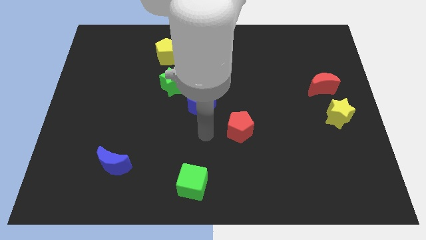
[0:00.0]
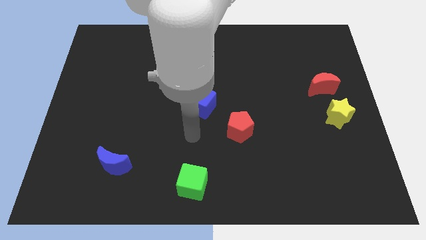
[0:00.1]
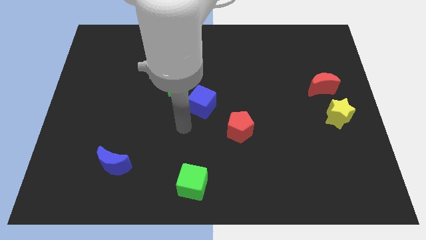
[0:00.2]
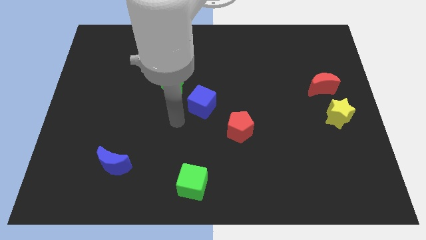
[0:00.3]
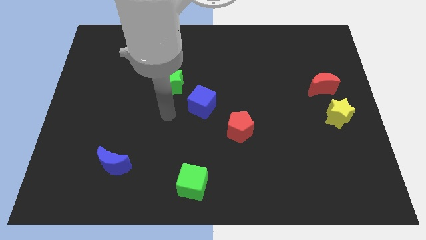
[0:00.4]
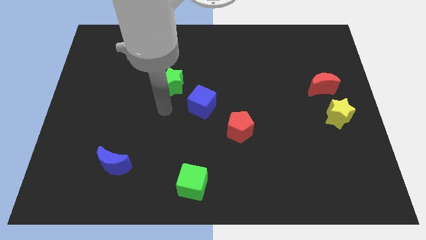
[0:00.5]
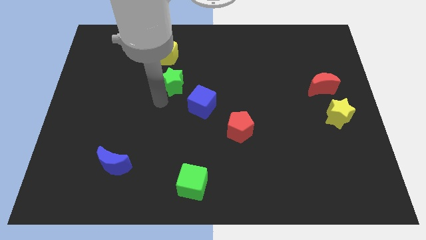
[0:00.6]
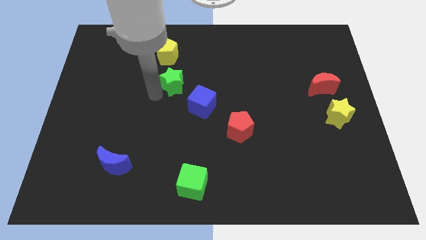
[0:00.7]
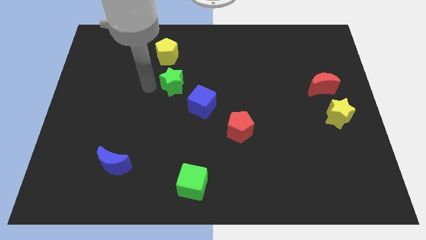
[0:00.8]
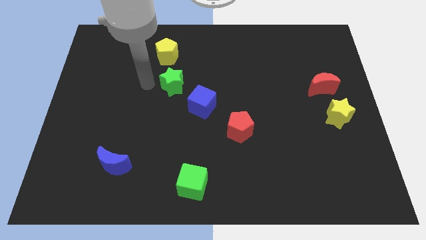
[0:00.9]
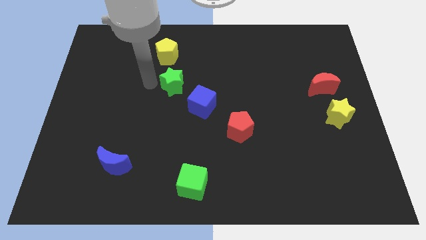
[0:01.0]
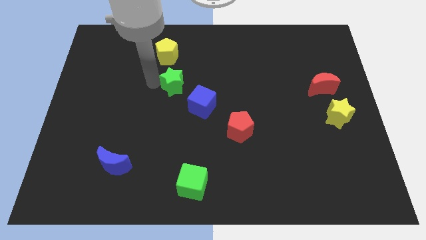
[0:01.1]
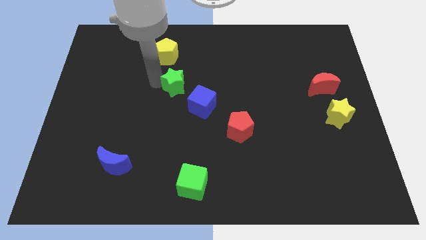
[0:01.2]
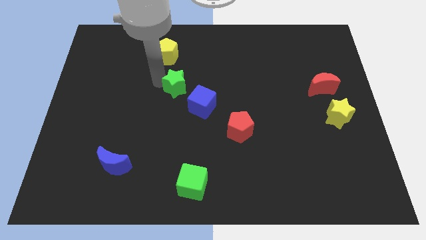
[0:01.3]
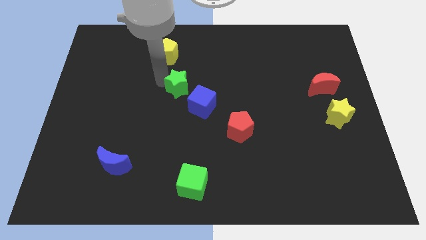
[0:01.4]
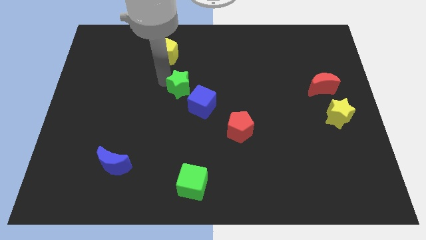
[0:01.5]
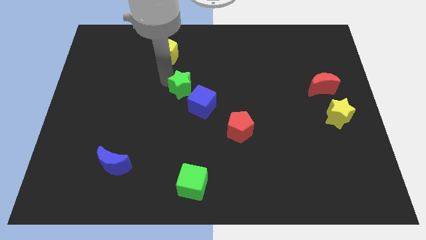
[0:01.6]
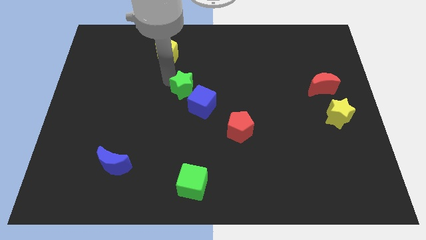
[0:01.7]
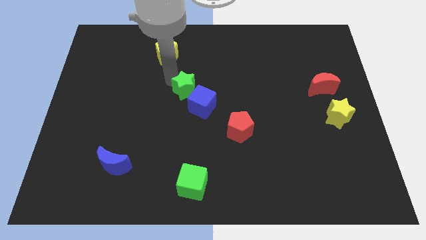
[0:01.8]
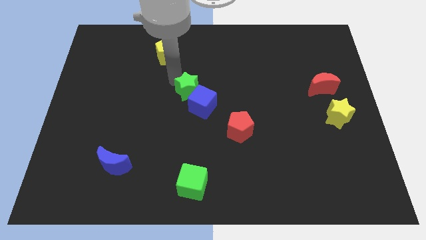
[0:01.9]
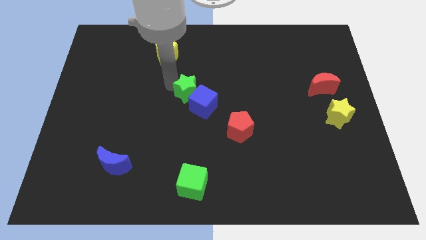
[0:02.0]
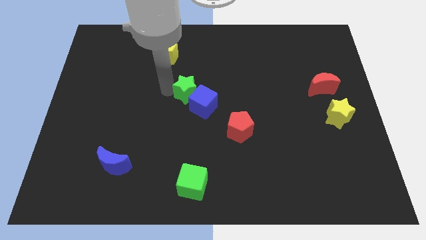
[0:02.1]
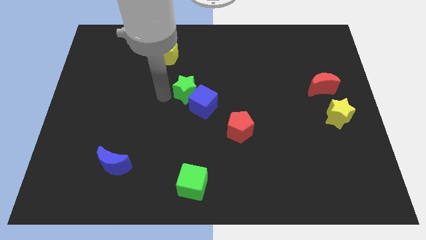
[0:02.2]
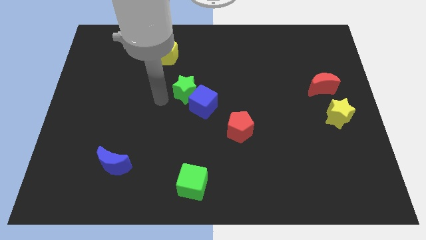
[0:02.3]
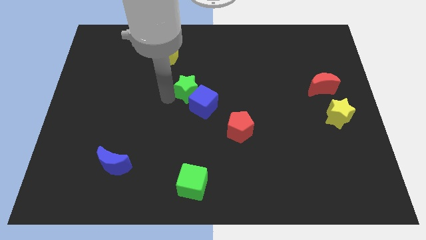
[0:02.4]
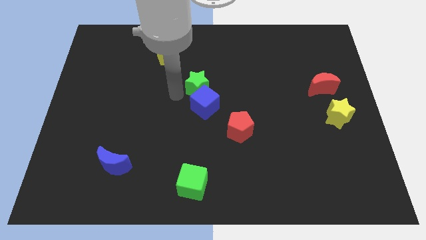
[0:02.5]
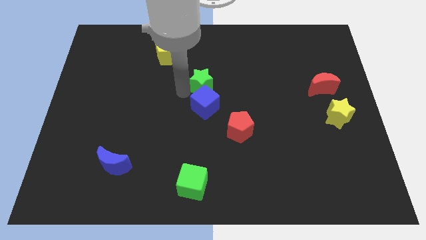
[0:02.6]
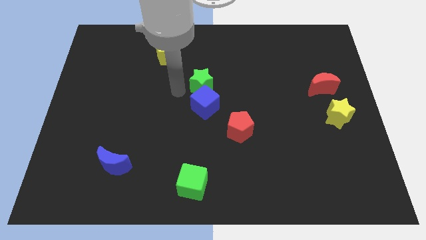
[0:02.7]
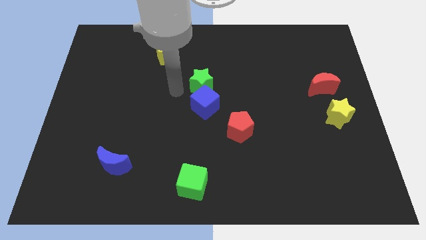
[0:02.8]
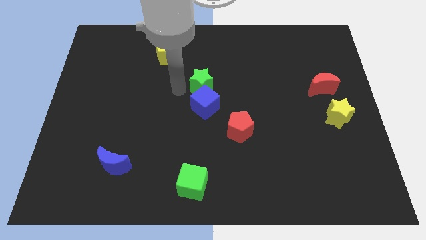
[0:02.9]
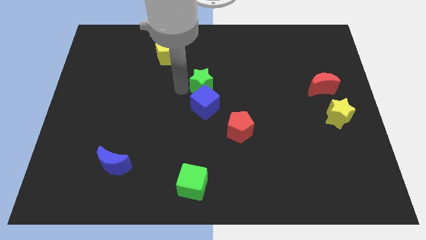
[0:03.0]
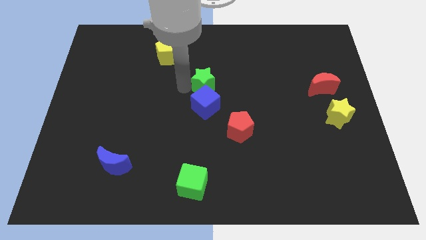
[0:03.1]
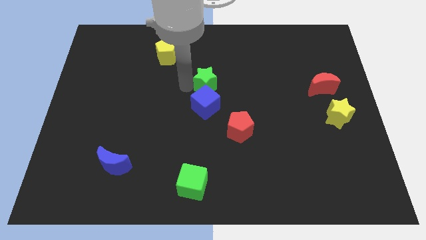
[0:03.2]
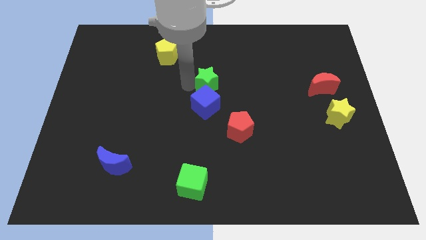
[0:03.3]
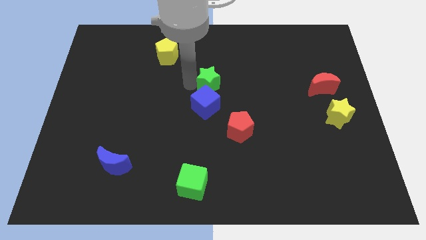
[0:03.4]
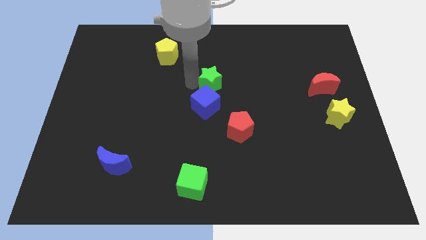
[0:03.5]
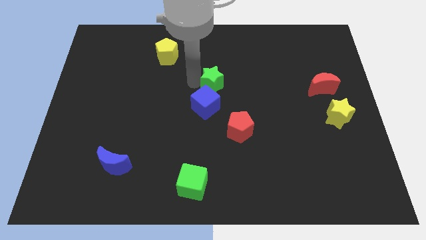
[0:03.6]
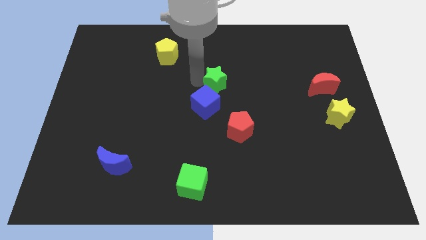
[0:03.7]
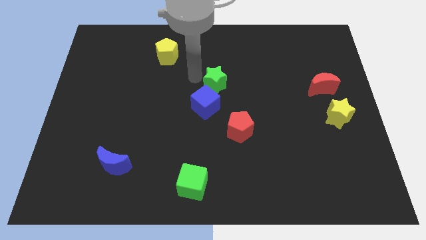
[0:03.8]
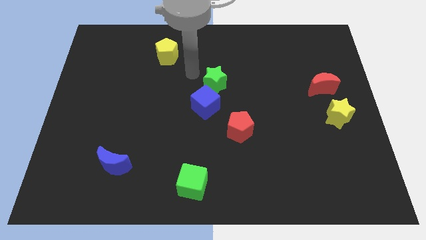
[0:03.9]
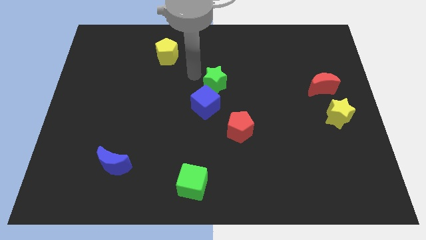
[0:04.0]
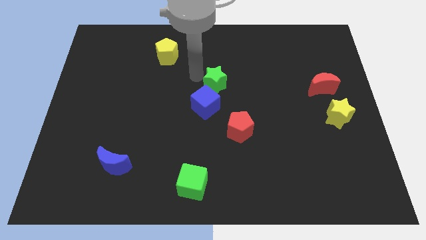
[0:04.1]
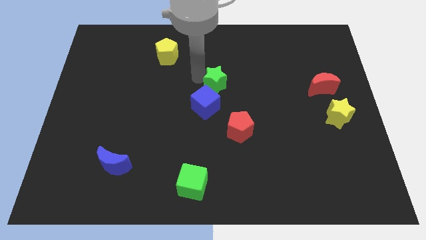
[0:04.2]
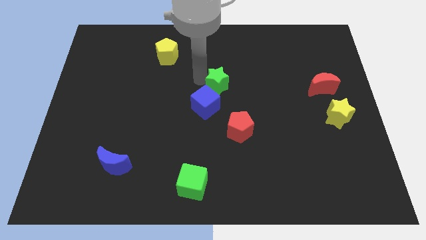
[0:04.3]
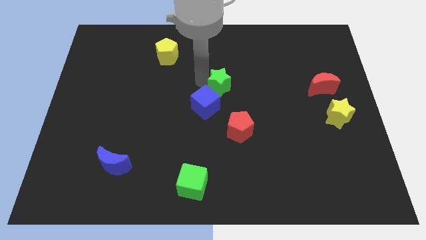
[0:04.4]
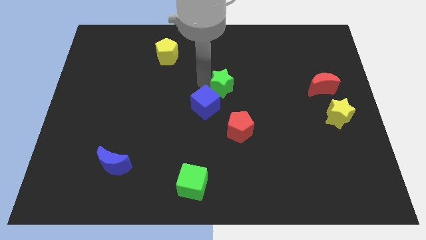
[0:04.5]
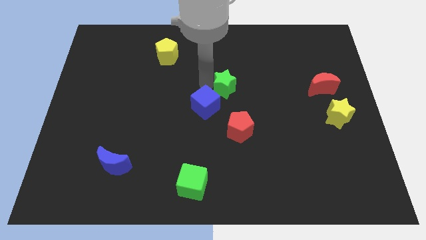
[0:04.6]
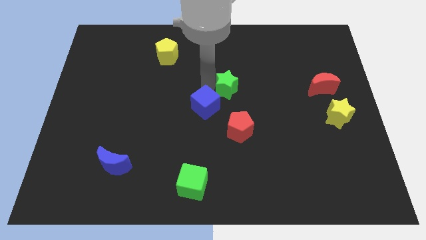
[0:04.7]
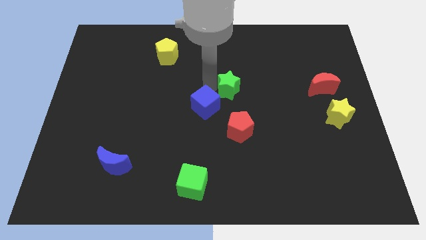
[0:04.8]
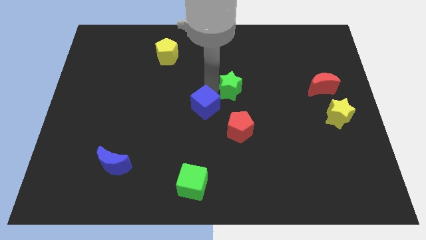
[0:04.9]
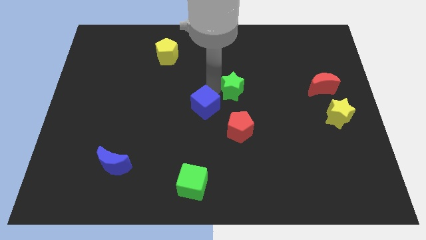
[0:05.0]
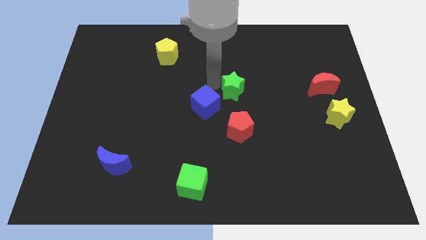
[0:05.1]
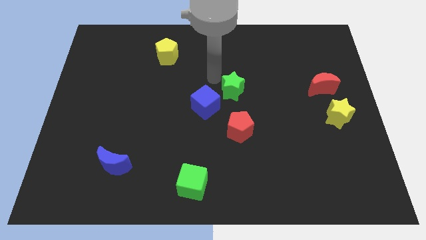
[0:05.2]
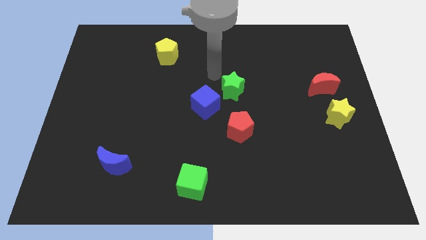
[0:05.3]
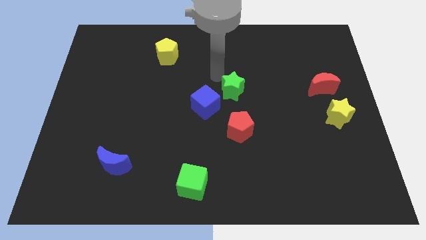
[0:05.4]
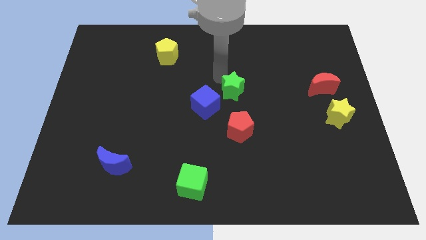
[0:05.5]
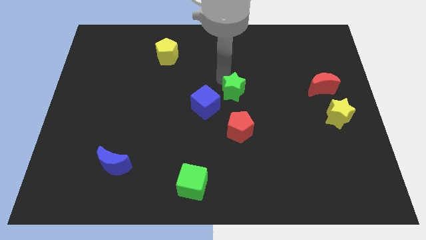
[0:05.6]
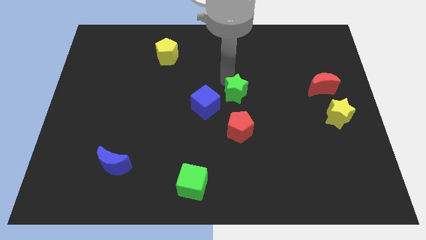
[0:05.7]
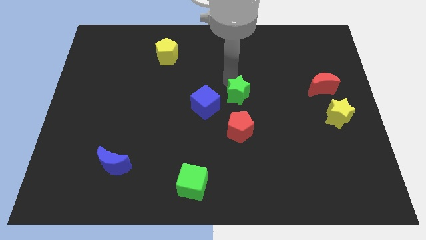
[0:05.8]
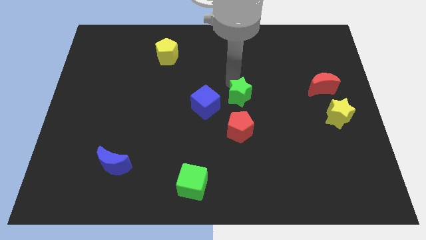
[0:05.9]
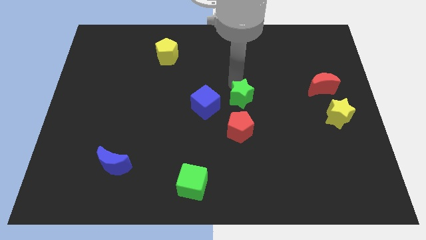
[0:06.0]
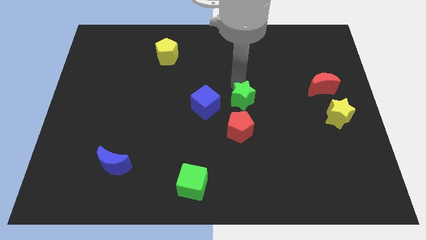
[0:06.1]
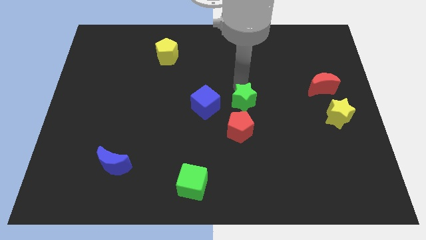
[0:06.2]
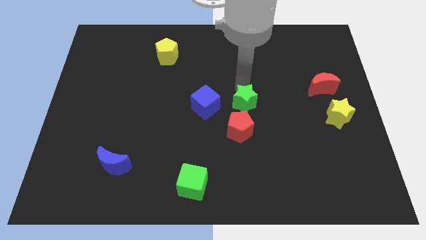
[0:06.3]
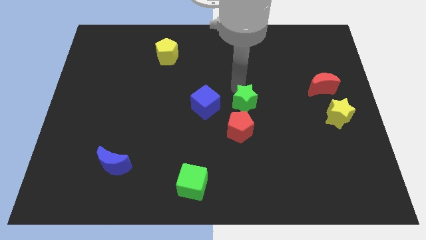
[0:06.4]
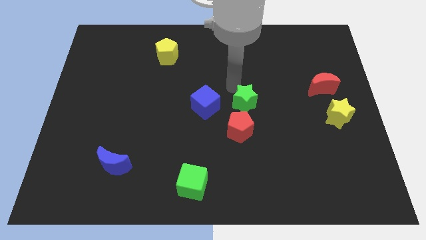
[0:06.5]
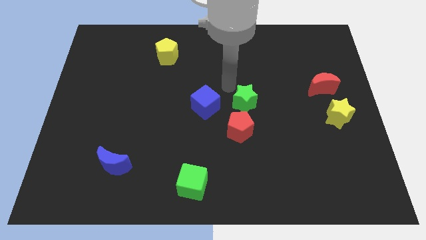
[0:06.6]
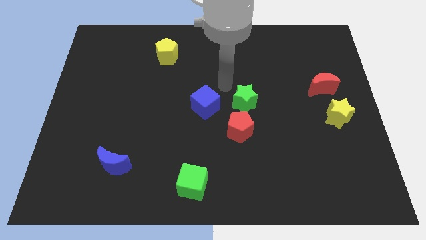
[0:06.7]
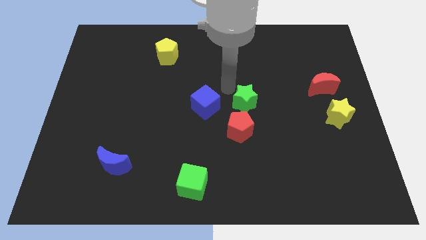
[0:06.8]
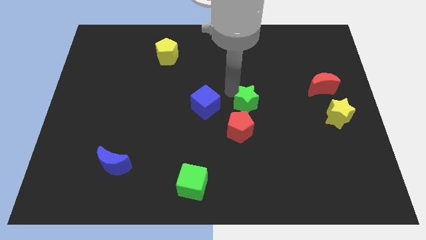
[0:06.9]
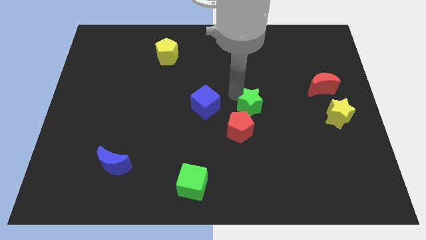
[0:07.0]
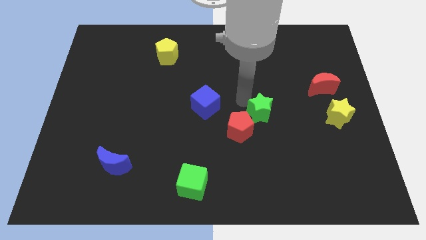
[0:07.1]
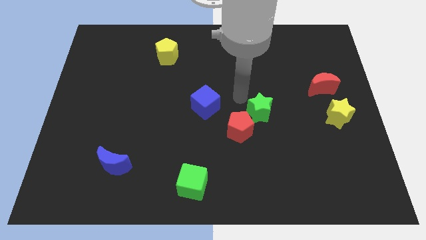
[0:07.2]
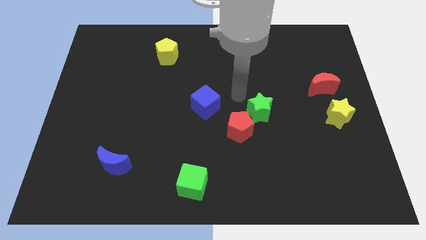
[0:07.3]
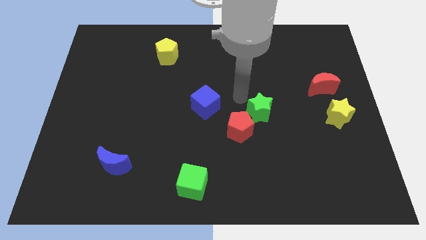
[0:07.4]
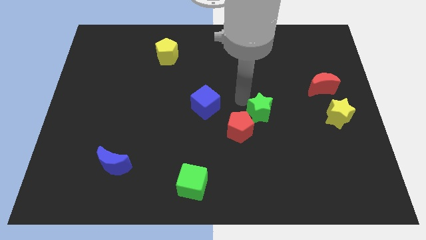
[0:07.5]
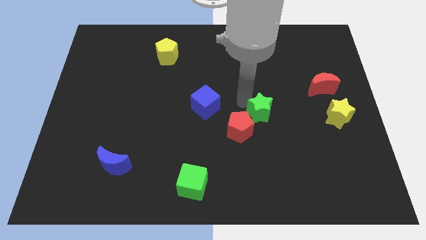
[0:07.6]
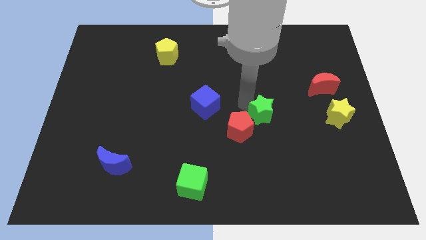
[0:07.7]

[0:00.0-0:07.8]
push the green star right of the red pentagon
